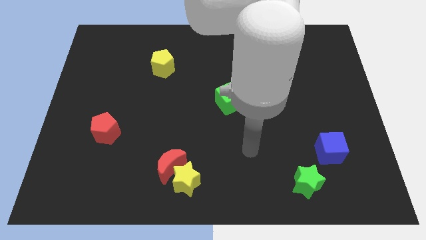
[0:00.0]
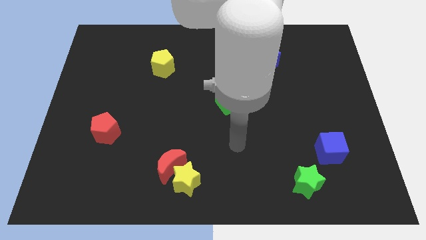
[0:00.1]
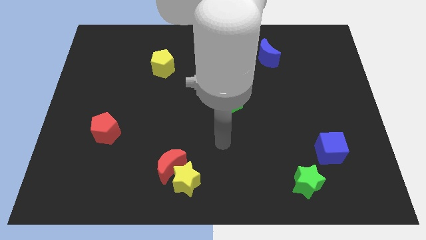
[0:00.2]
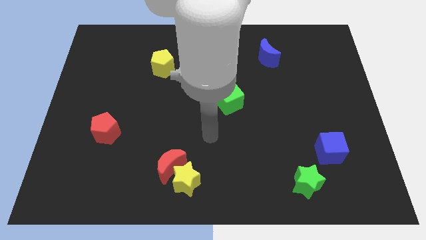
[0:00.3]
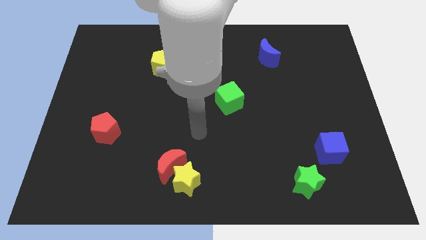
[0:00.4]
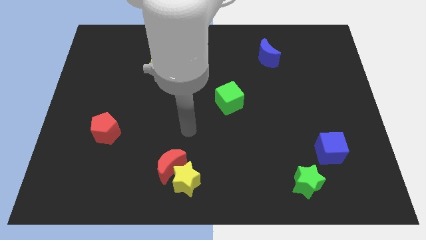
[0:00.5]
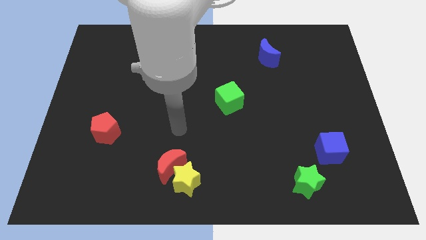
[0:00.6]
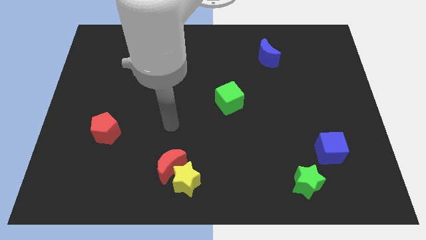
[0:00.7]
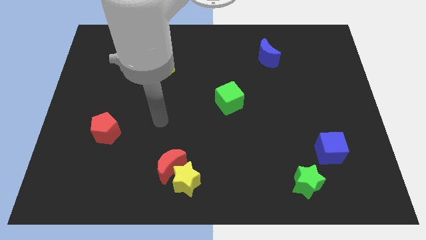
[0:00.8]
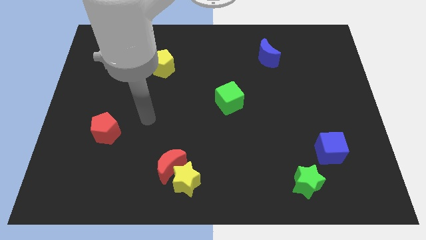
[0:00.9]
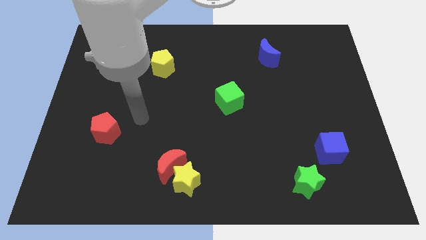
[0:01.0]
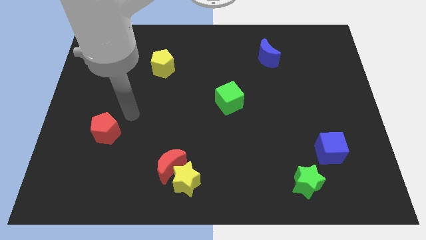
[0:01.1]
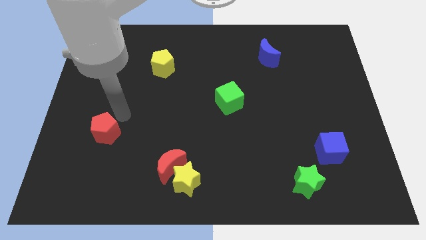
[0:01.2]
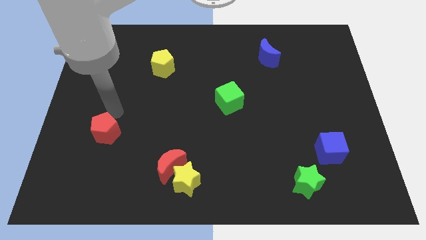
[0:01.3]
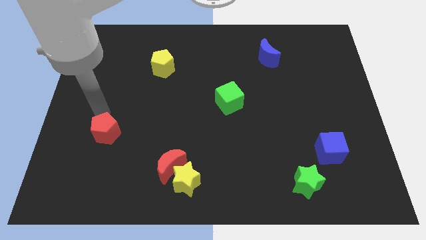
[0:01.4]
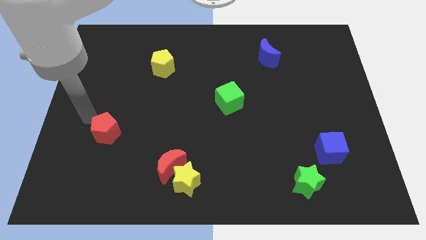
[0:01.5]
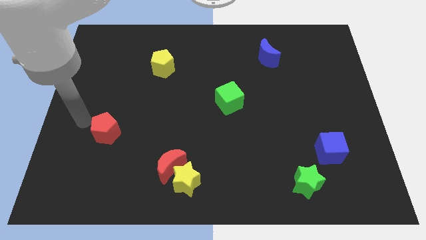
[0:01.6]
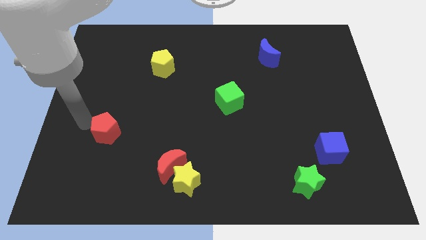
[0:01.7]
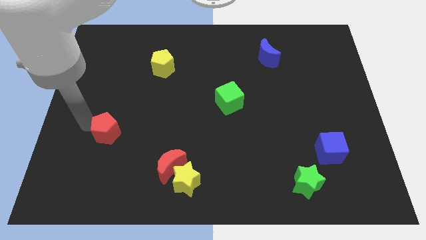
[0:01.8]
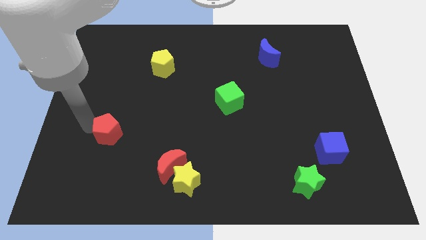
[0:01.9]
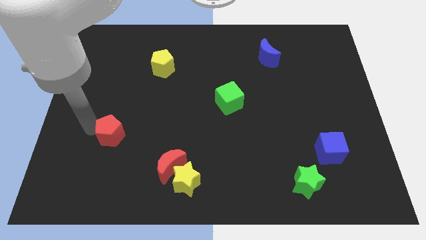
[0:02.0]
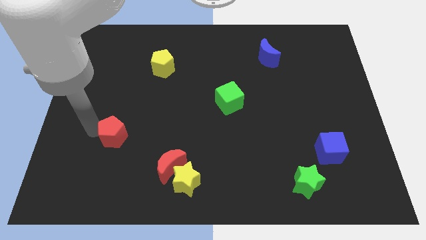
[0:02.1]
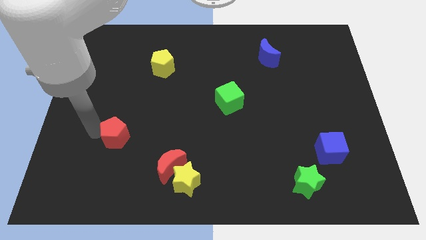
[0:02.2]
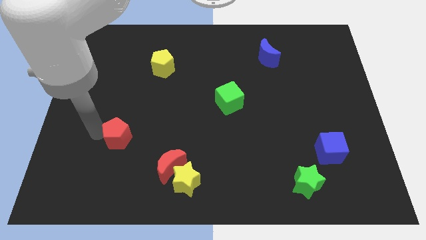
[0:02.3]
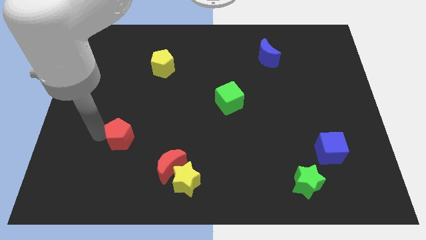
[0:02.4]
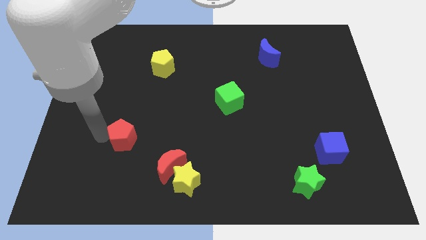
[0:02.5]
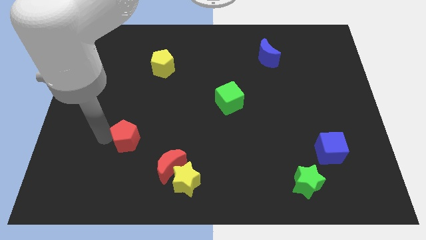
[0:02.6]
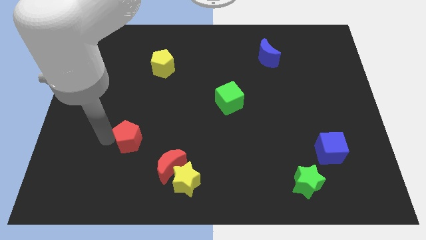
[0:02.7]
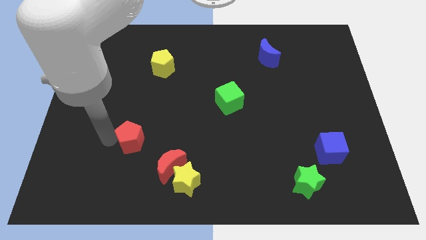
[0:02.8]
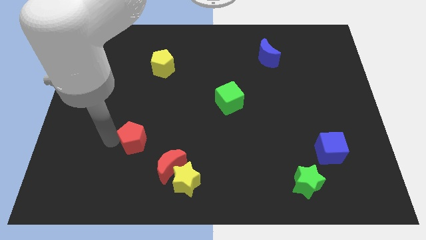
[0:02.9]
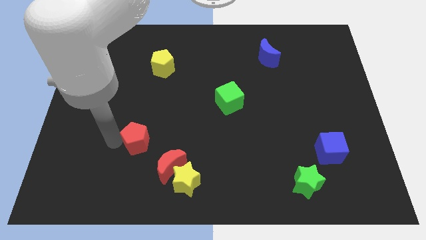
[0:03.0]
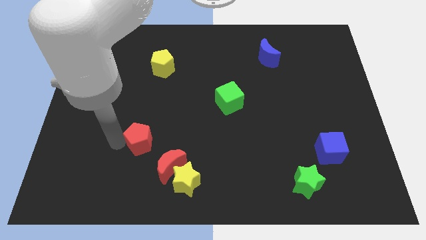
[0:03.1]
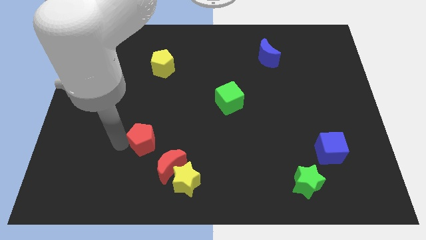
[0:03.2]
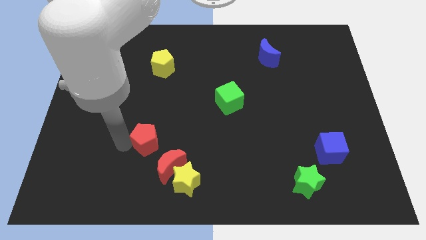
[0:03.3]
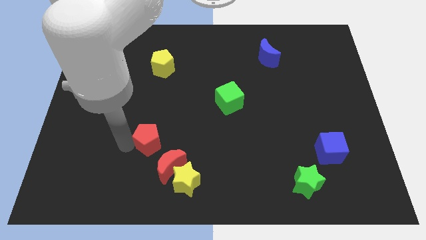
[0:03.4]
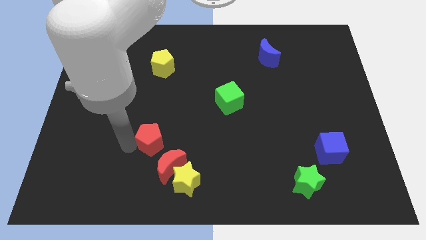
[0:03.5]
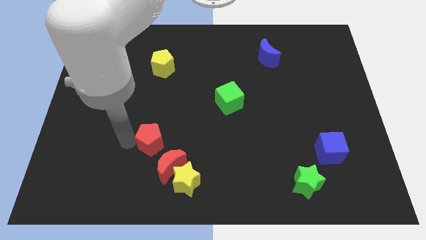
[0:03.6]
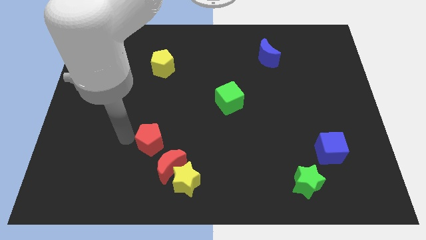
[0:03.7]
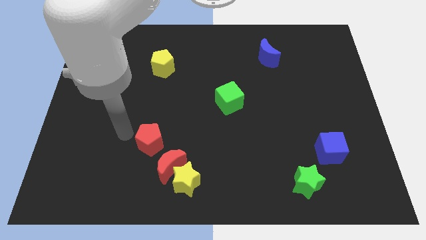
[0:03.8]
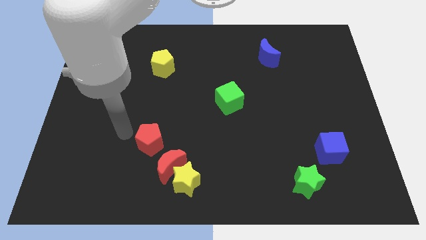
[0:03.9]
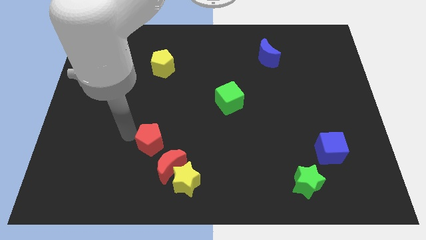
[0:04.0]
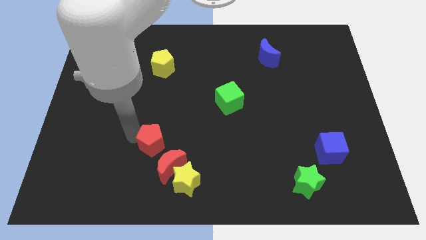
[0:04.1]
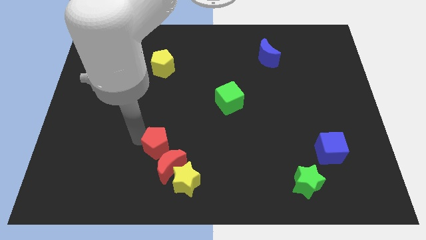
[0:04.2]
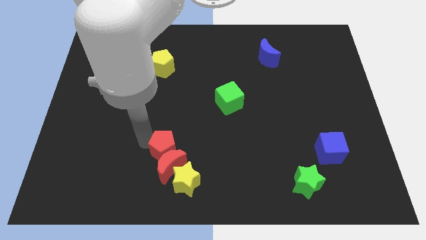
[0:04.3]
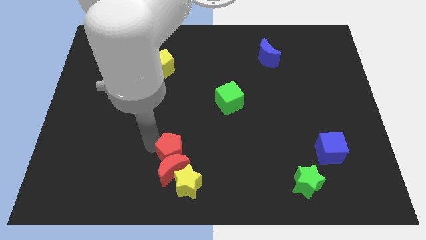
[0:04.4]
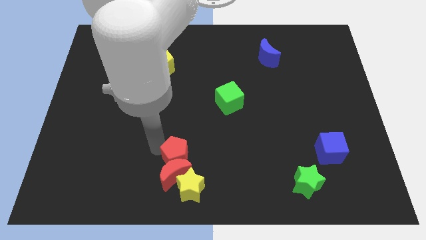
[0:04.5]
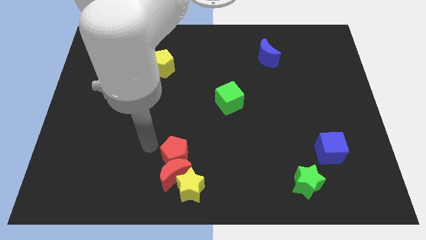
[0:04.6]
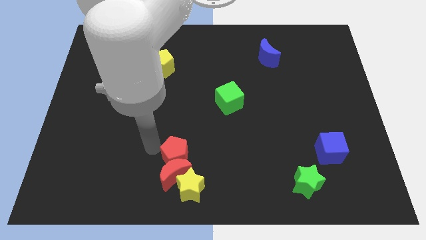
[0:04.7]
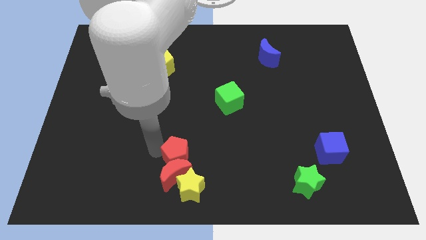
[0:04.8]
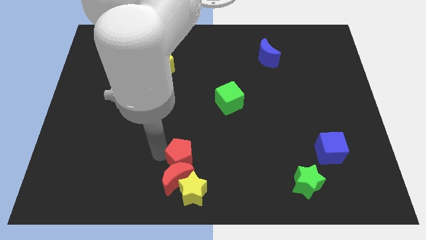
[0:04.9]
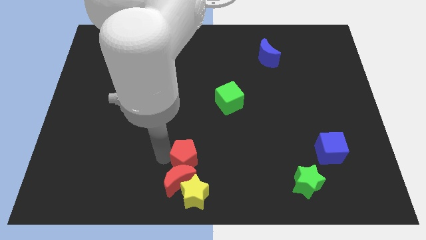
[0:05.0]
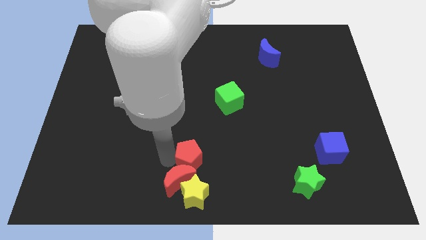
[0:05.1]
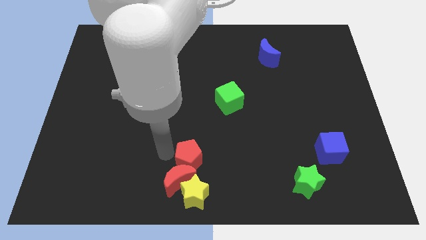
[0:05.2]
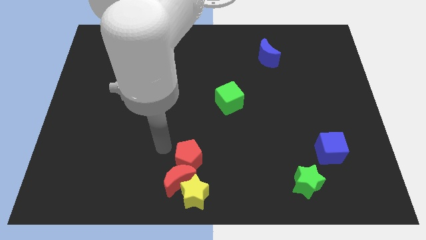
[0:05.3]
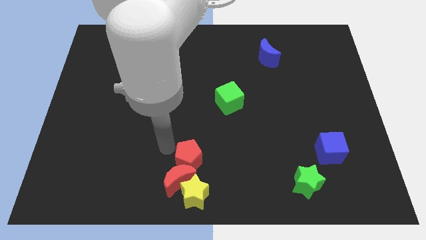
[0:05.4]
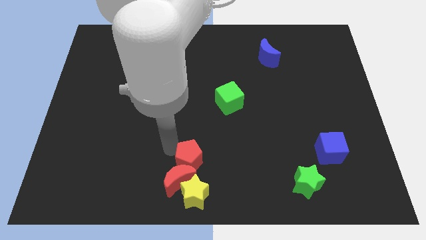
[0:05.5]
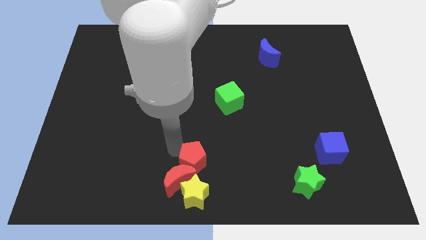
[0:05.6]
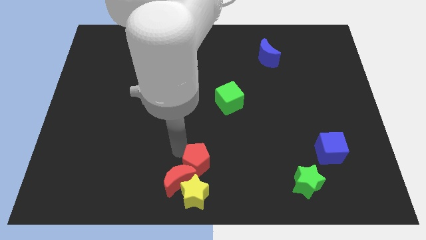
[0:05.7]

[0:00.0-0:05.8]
move the red pentagon to the right of the red moon

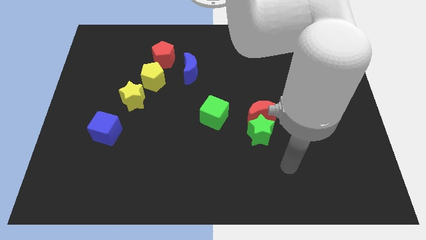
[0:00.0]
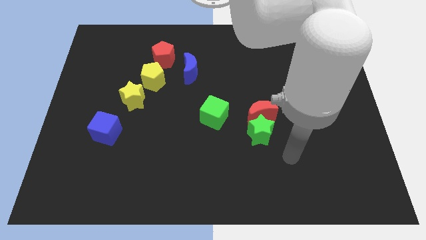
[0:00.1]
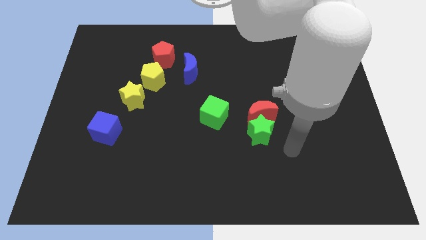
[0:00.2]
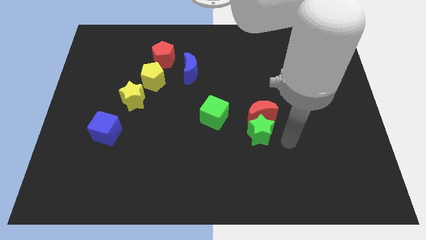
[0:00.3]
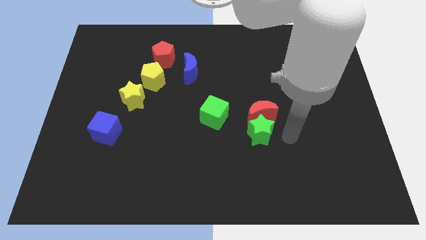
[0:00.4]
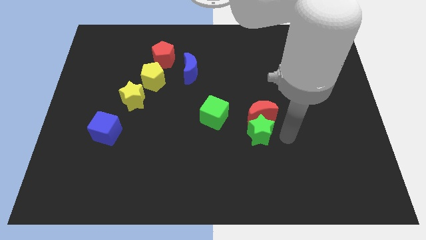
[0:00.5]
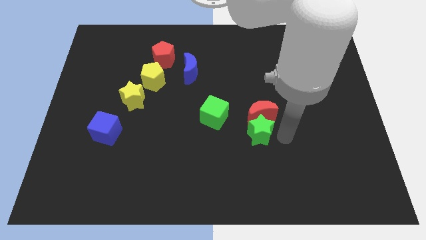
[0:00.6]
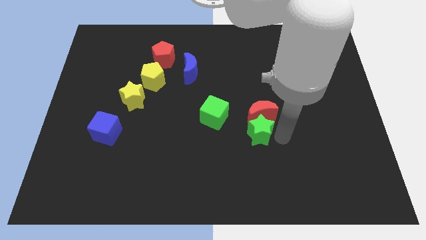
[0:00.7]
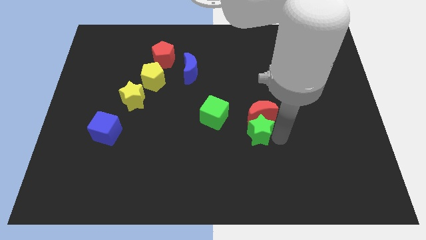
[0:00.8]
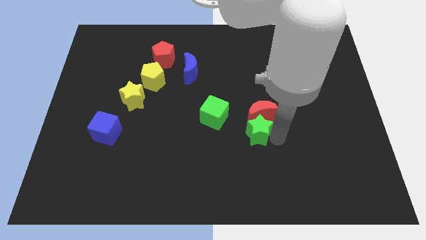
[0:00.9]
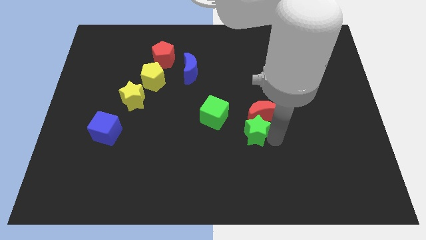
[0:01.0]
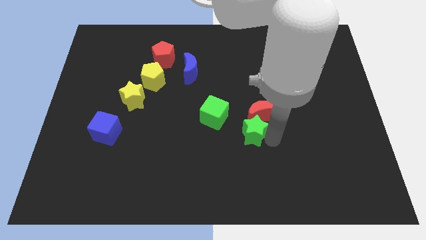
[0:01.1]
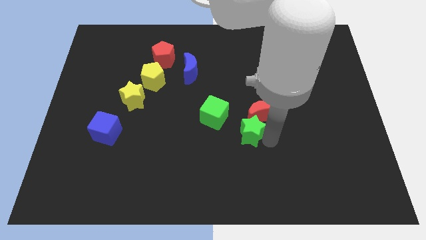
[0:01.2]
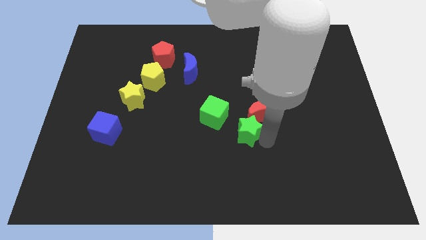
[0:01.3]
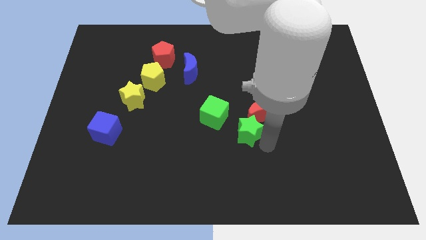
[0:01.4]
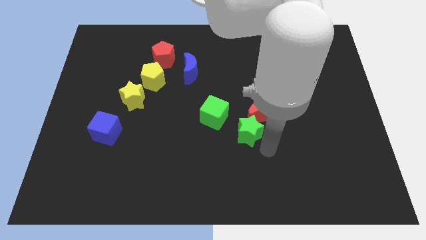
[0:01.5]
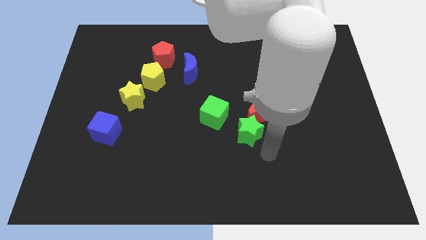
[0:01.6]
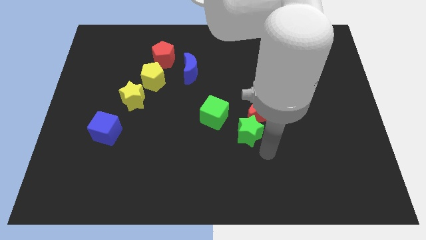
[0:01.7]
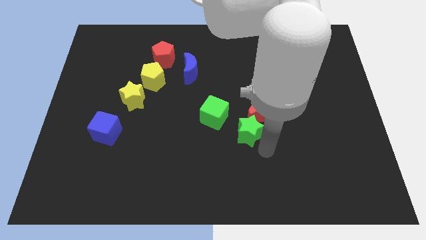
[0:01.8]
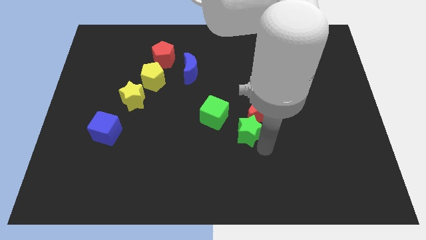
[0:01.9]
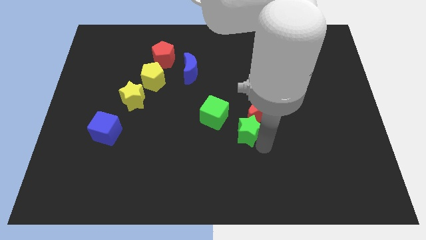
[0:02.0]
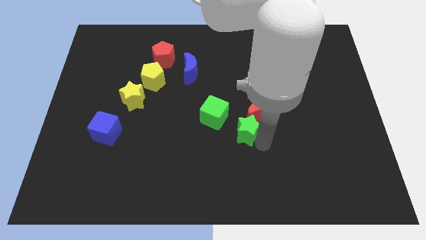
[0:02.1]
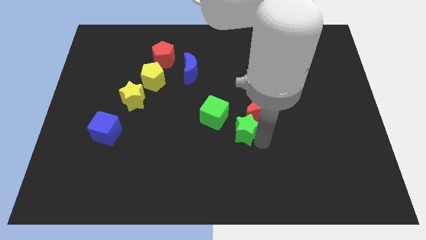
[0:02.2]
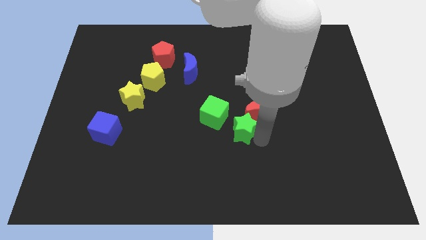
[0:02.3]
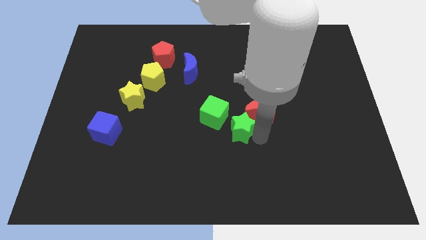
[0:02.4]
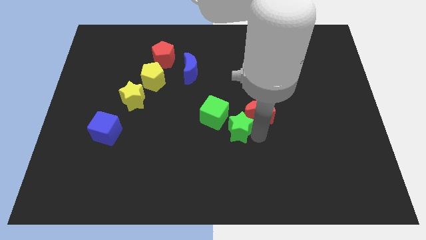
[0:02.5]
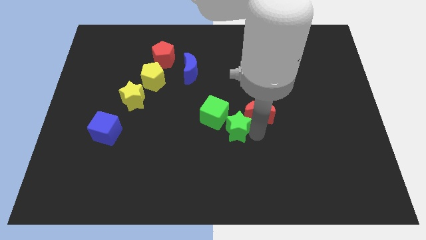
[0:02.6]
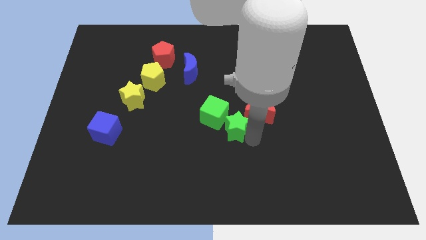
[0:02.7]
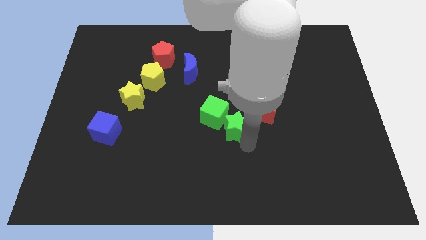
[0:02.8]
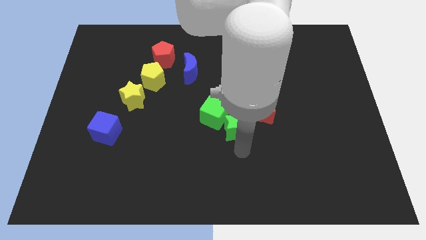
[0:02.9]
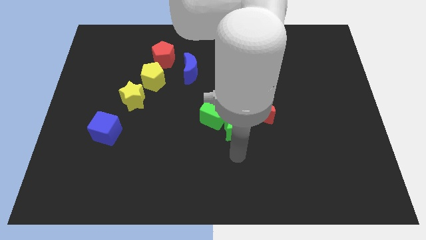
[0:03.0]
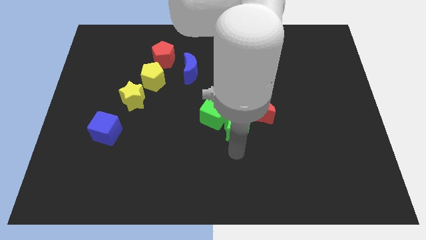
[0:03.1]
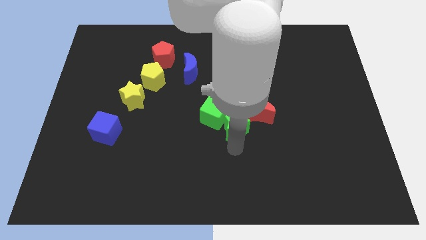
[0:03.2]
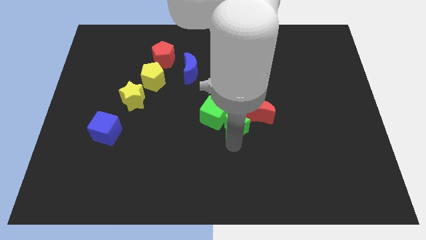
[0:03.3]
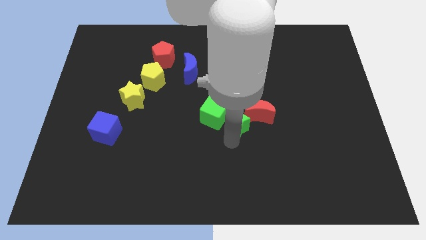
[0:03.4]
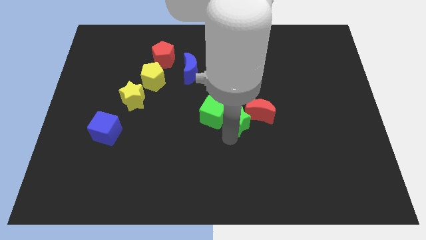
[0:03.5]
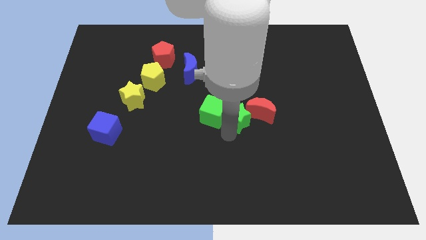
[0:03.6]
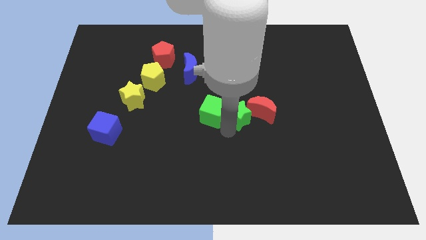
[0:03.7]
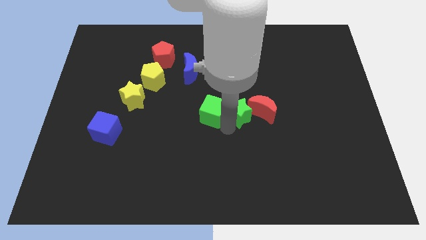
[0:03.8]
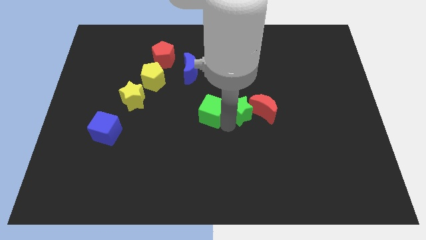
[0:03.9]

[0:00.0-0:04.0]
move the green star diagonally up and to the left of the red moon
